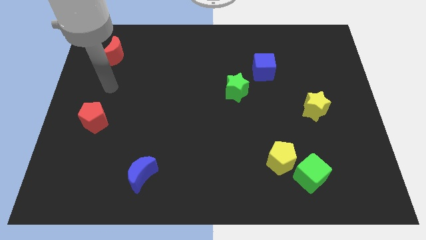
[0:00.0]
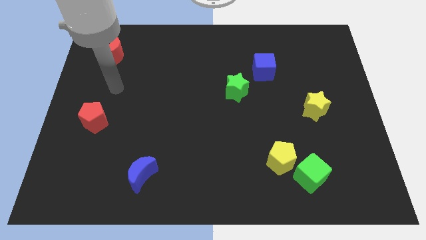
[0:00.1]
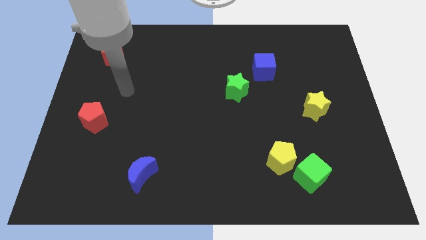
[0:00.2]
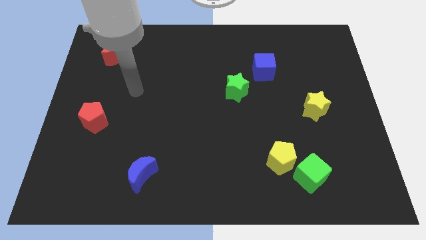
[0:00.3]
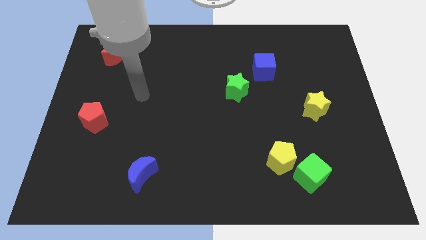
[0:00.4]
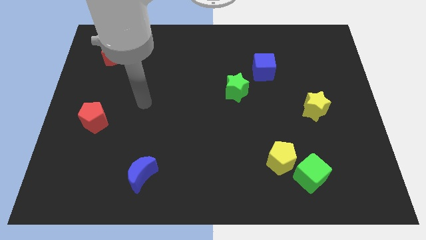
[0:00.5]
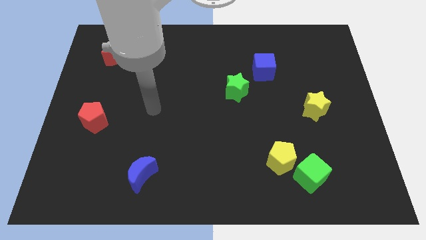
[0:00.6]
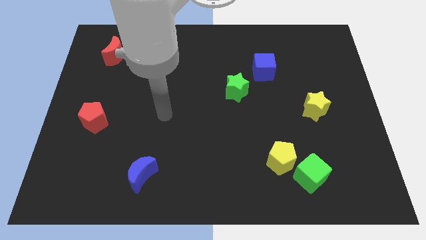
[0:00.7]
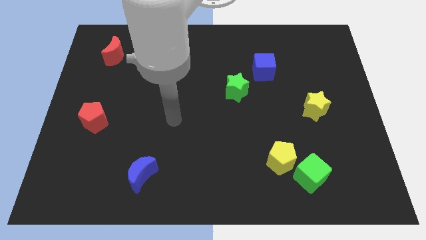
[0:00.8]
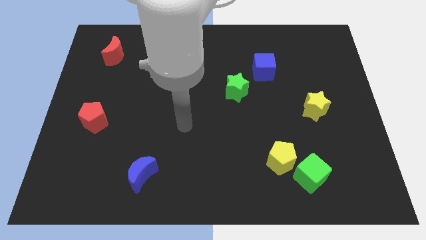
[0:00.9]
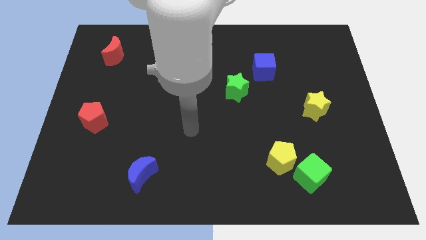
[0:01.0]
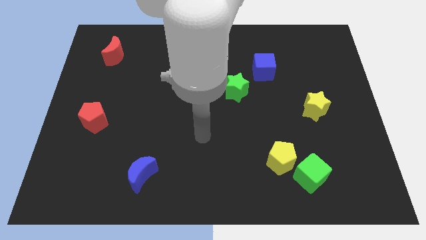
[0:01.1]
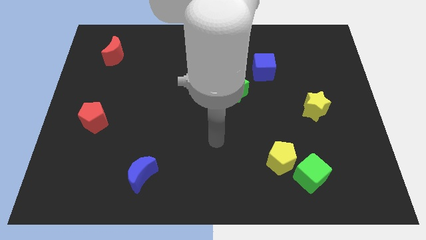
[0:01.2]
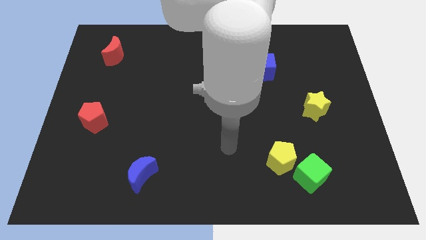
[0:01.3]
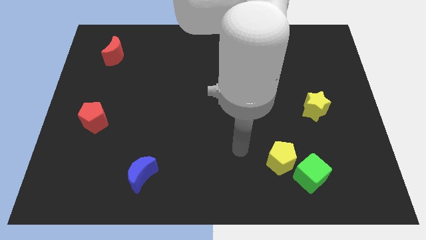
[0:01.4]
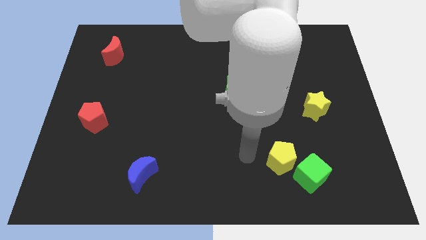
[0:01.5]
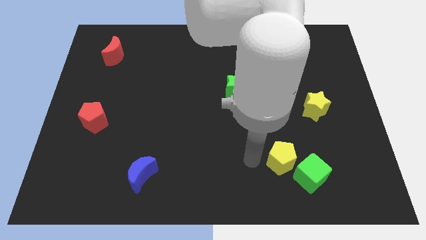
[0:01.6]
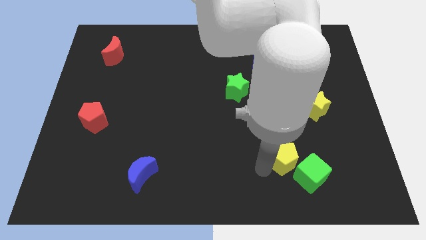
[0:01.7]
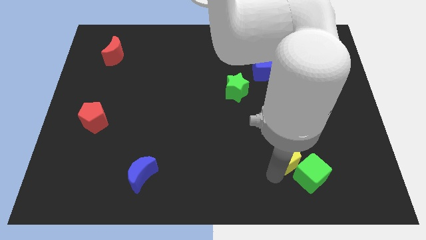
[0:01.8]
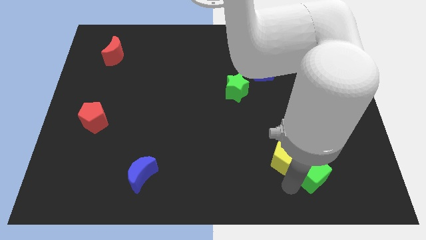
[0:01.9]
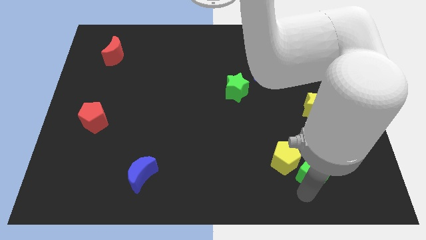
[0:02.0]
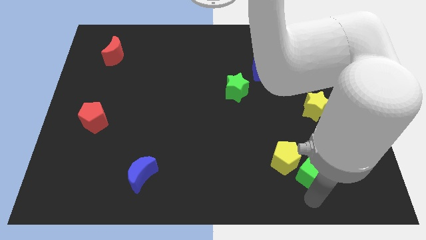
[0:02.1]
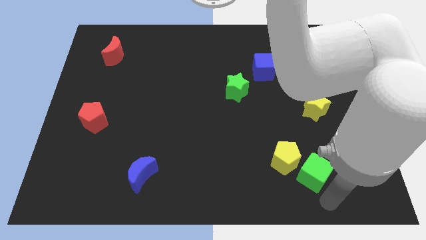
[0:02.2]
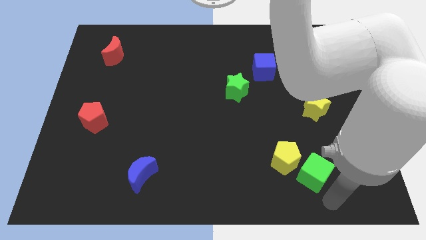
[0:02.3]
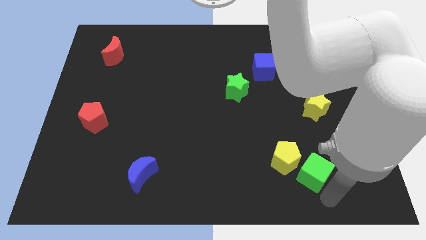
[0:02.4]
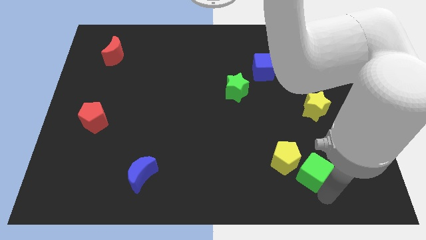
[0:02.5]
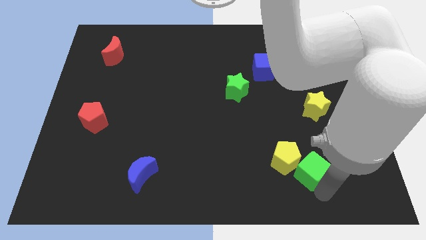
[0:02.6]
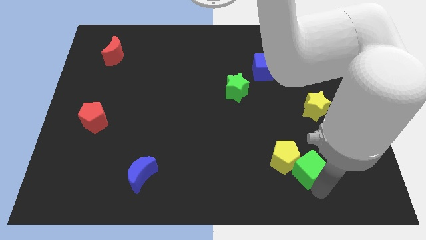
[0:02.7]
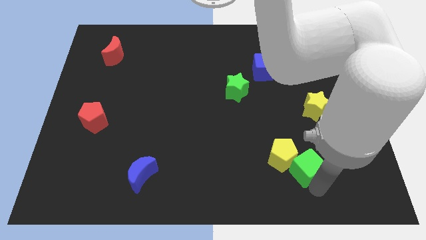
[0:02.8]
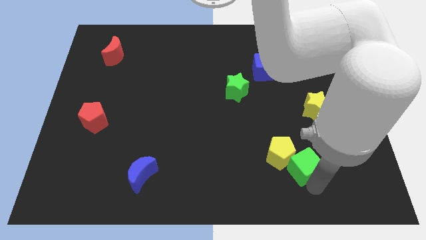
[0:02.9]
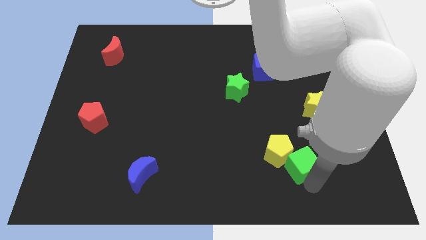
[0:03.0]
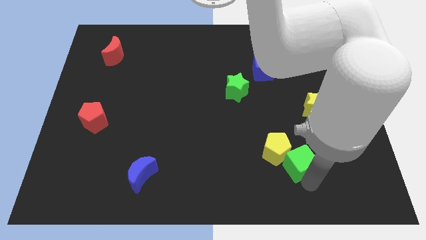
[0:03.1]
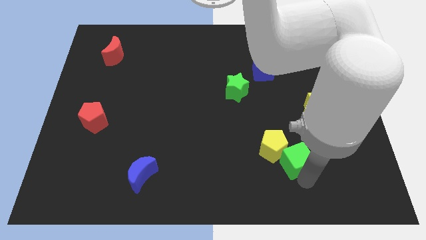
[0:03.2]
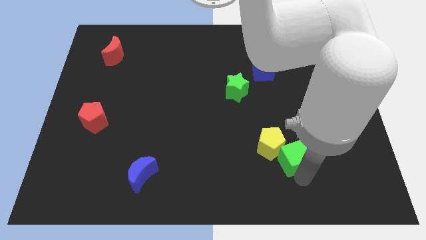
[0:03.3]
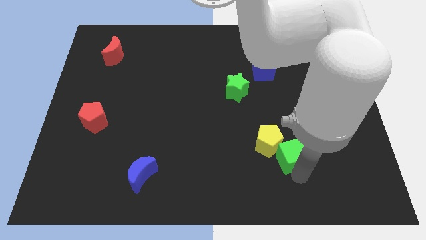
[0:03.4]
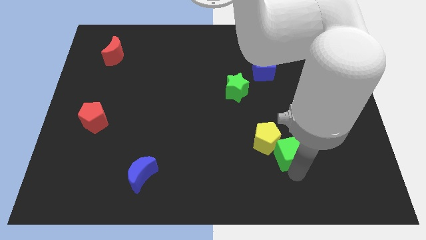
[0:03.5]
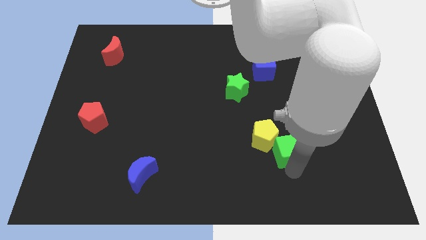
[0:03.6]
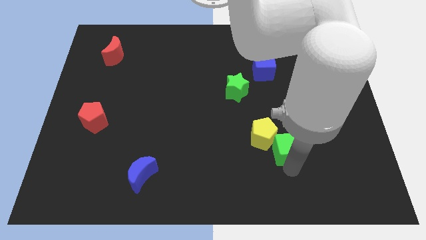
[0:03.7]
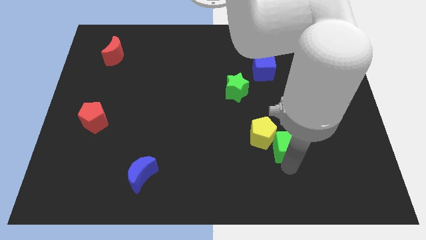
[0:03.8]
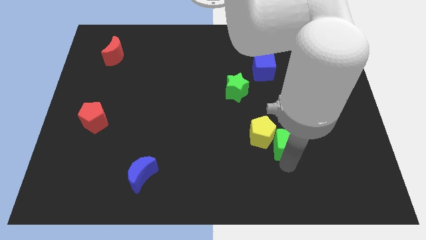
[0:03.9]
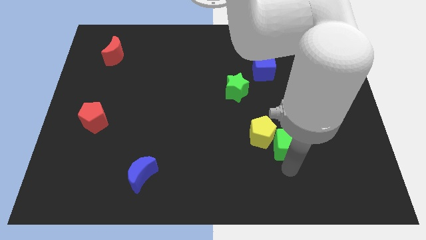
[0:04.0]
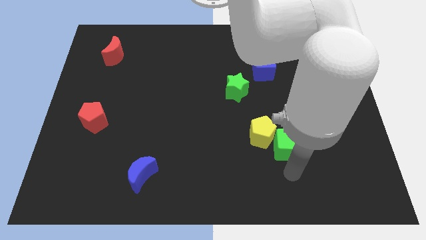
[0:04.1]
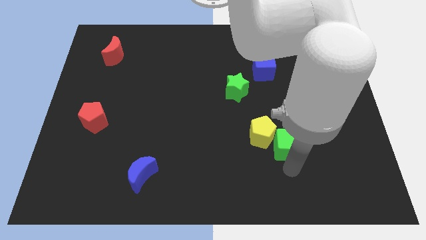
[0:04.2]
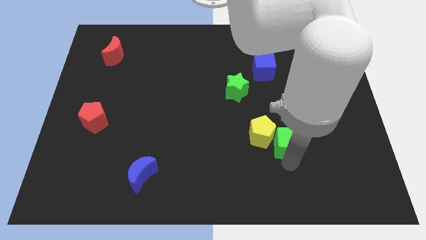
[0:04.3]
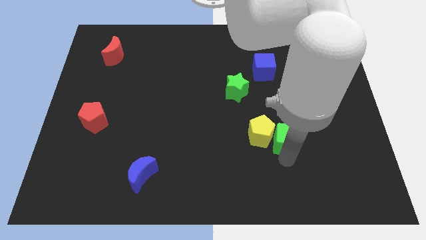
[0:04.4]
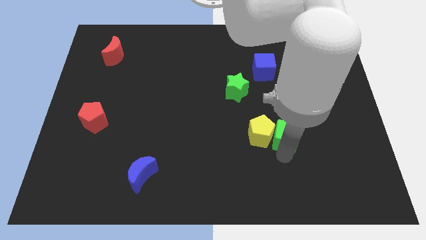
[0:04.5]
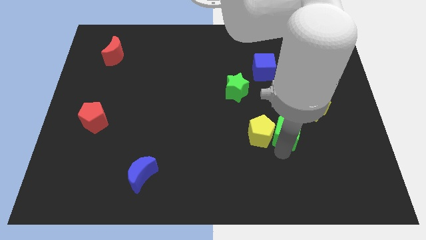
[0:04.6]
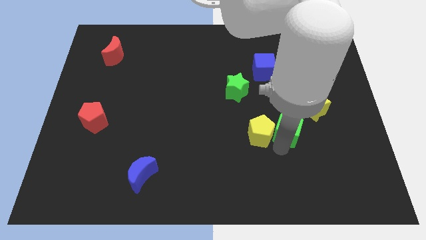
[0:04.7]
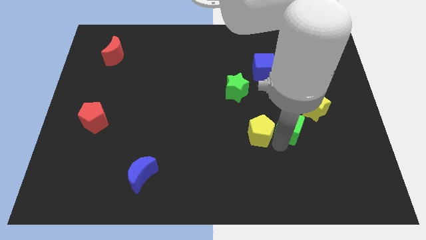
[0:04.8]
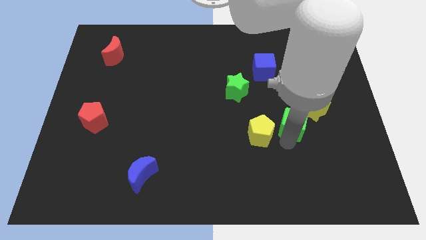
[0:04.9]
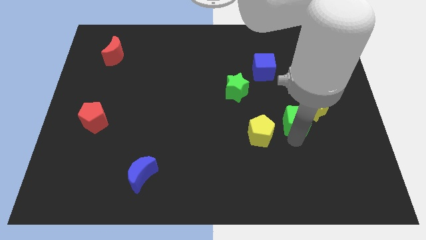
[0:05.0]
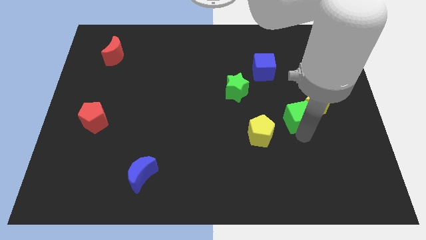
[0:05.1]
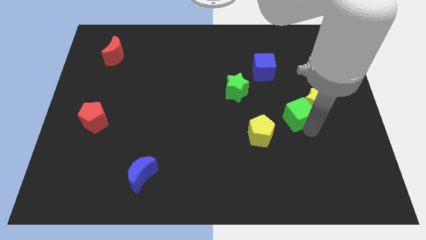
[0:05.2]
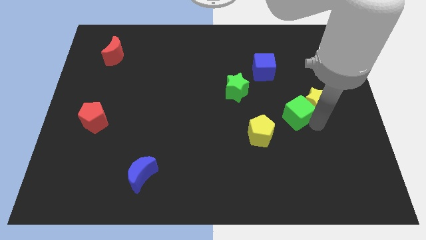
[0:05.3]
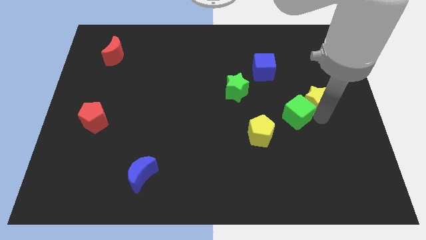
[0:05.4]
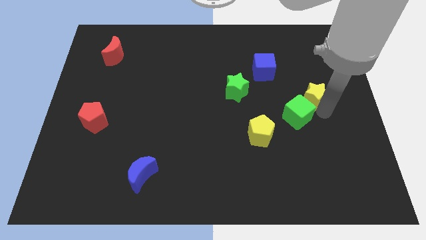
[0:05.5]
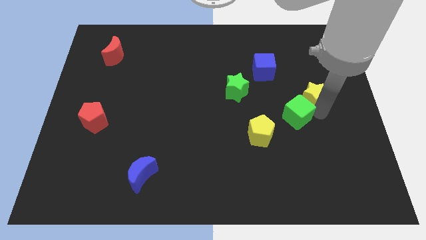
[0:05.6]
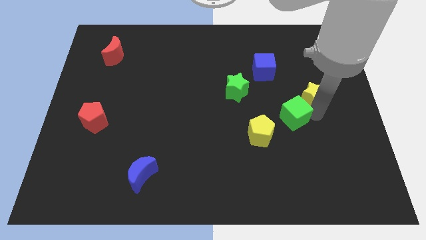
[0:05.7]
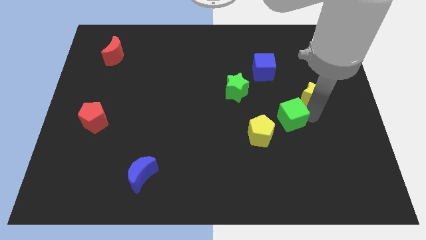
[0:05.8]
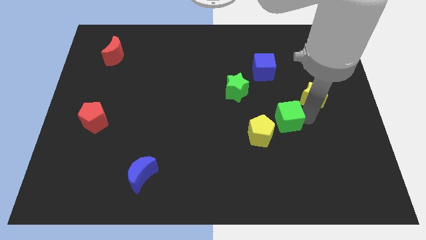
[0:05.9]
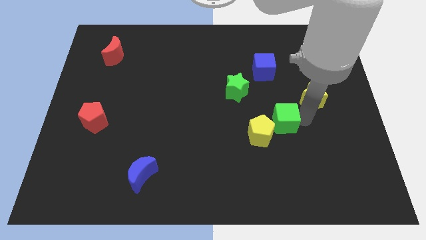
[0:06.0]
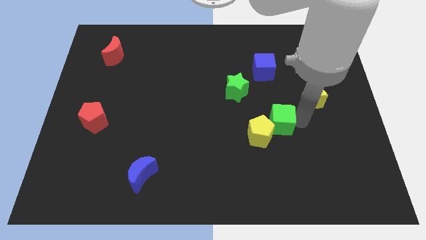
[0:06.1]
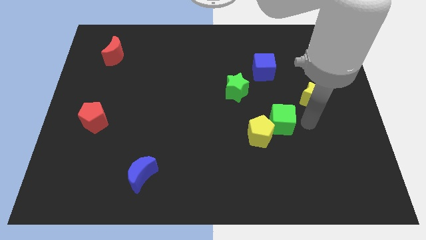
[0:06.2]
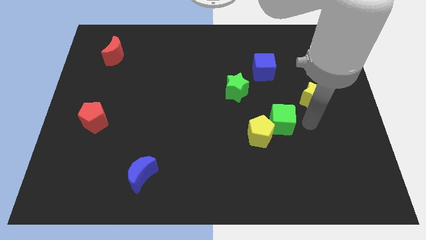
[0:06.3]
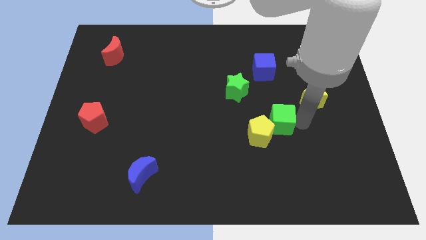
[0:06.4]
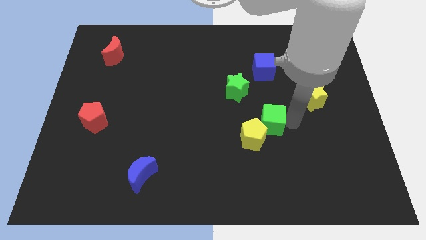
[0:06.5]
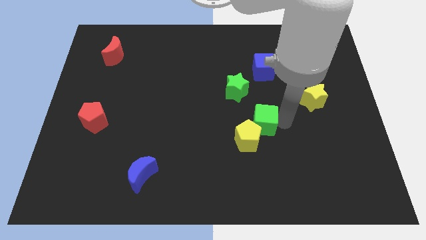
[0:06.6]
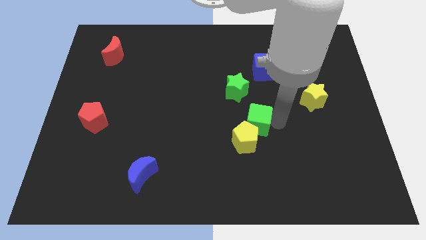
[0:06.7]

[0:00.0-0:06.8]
put the green cube to the middle
